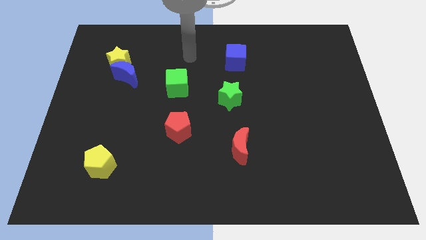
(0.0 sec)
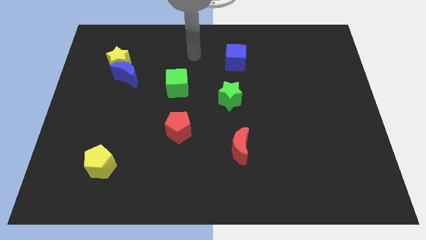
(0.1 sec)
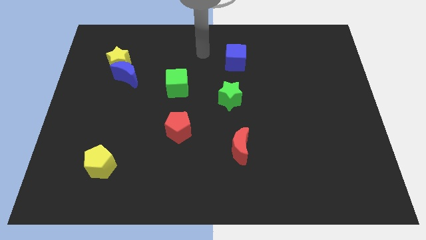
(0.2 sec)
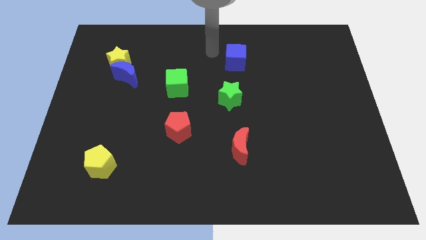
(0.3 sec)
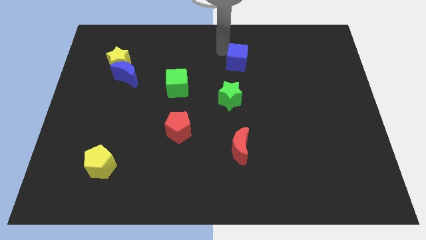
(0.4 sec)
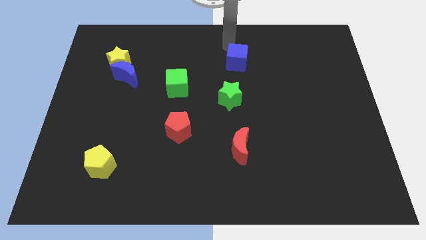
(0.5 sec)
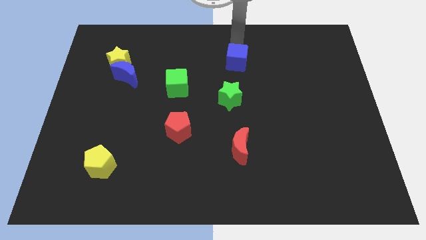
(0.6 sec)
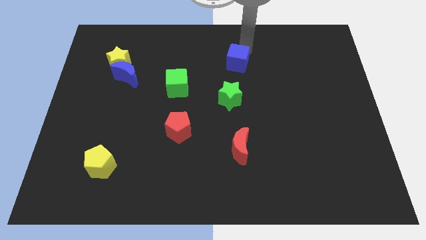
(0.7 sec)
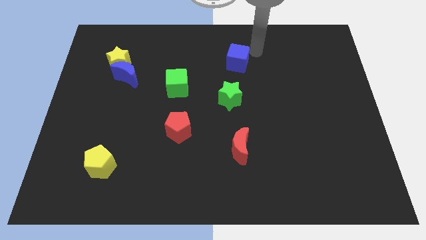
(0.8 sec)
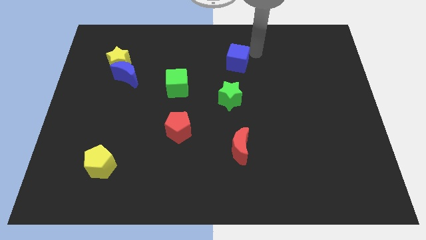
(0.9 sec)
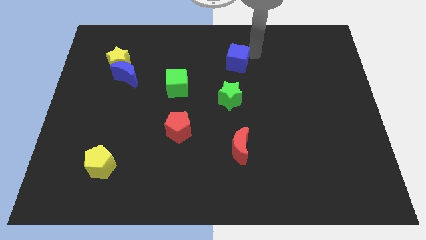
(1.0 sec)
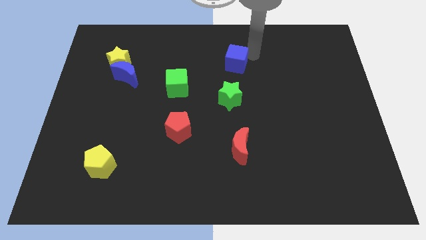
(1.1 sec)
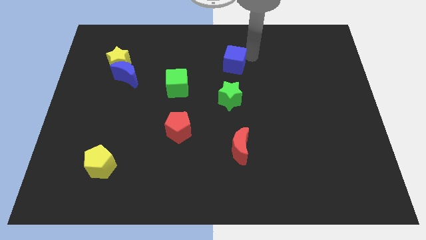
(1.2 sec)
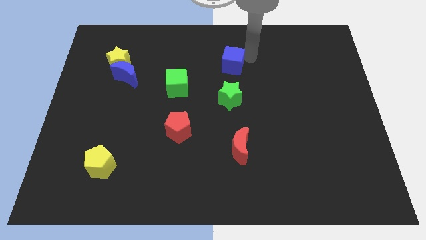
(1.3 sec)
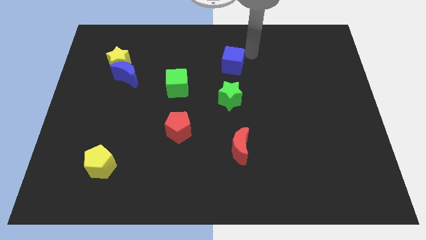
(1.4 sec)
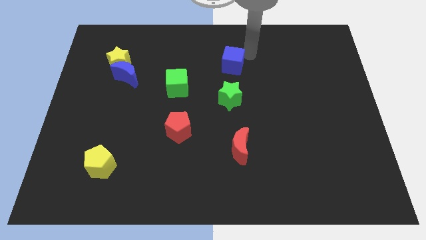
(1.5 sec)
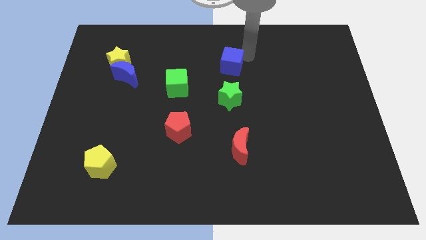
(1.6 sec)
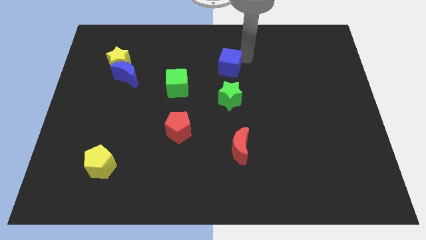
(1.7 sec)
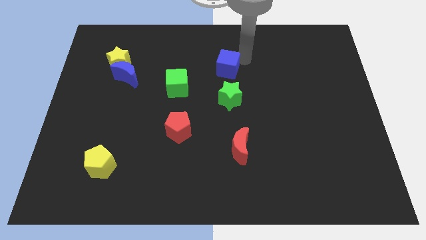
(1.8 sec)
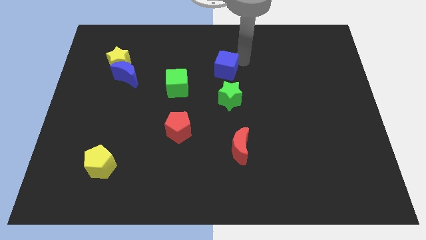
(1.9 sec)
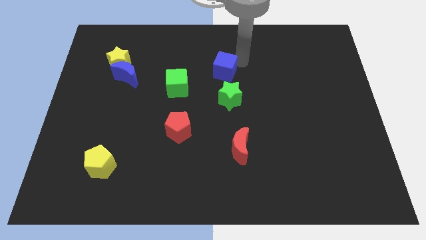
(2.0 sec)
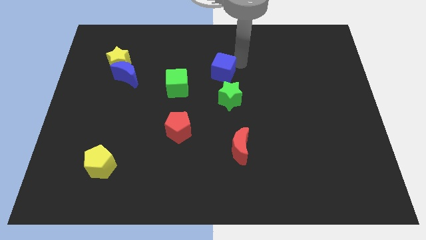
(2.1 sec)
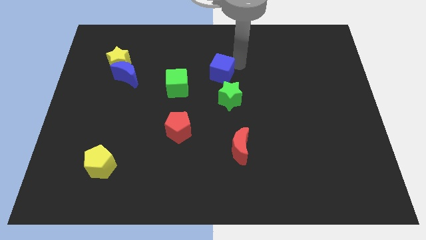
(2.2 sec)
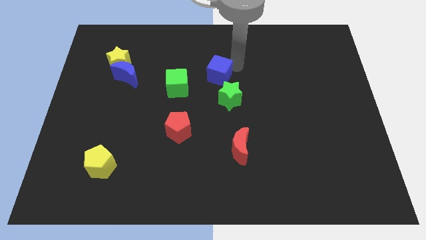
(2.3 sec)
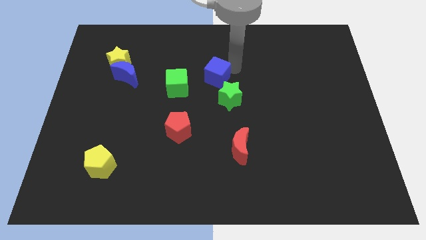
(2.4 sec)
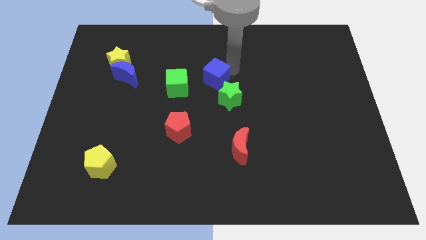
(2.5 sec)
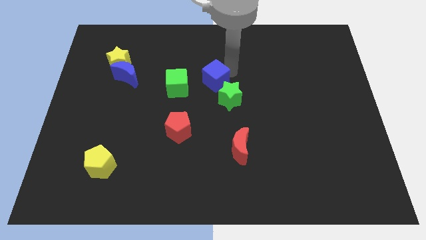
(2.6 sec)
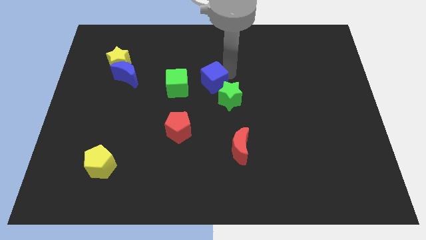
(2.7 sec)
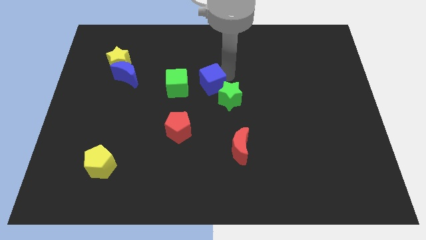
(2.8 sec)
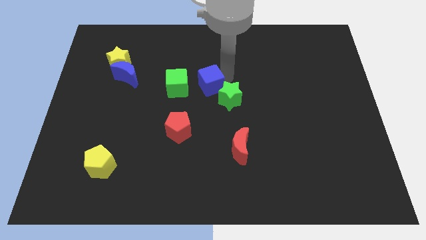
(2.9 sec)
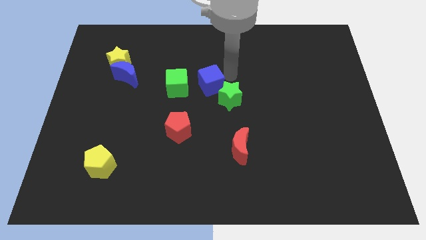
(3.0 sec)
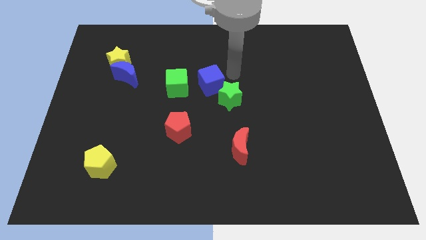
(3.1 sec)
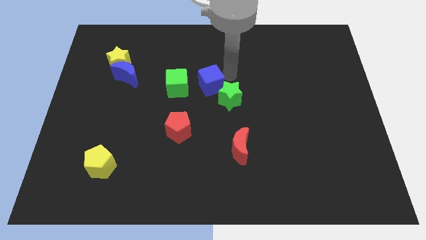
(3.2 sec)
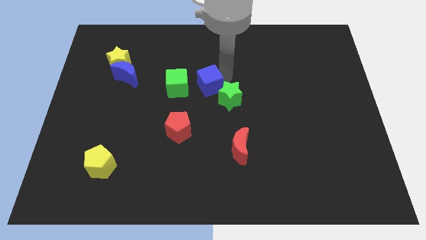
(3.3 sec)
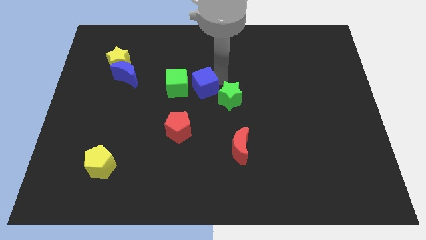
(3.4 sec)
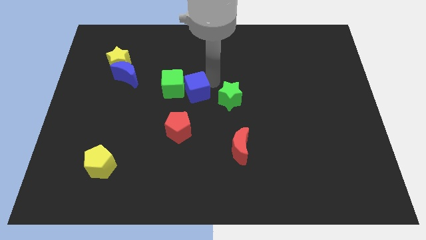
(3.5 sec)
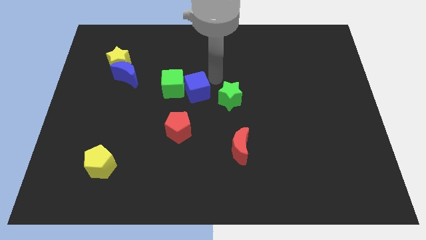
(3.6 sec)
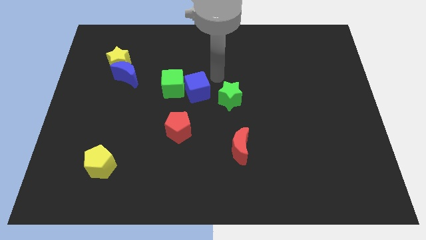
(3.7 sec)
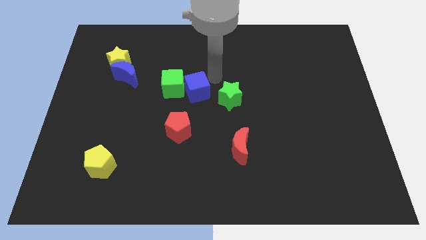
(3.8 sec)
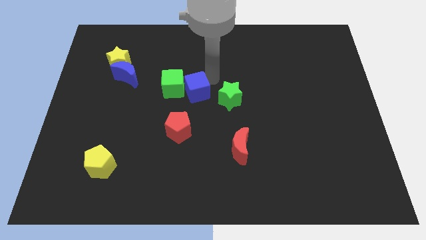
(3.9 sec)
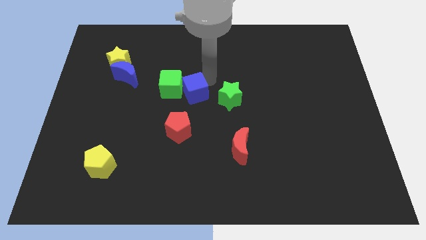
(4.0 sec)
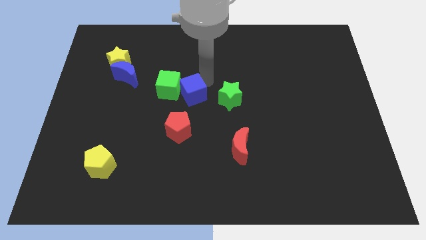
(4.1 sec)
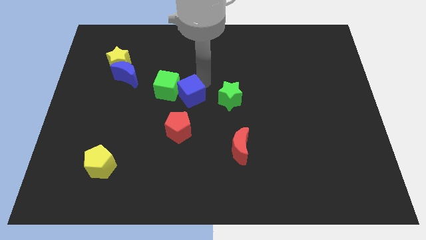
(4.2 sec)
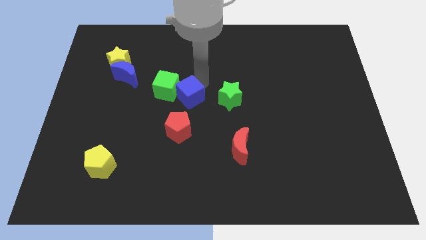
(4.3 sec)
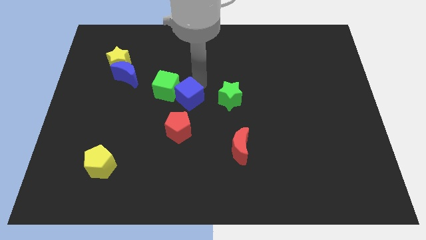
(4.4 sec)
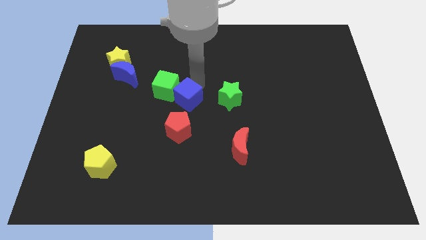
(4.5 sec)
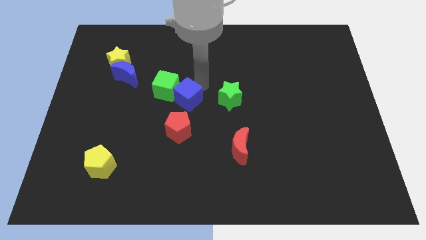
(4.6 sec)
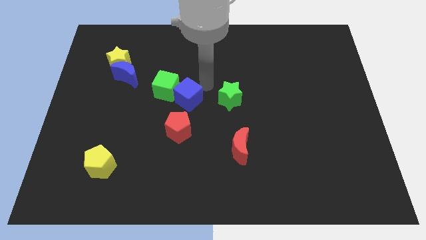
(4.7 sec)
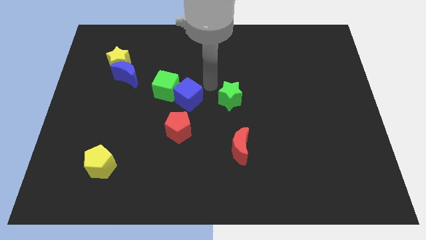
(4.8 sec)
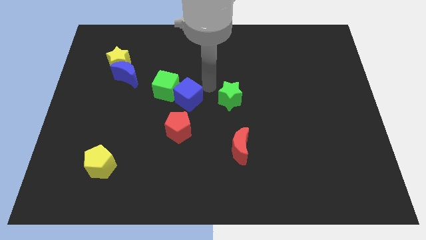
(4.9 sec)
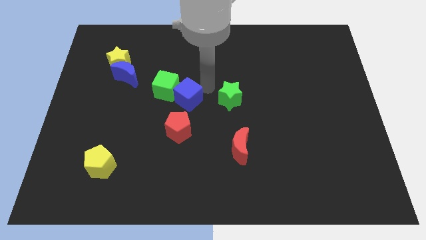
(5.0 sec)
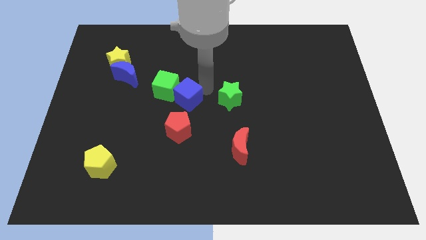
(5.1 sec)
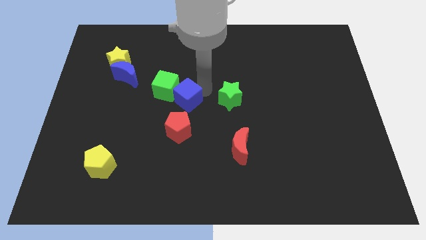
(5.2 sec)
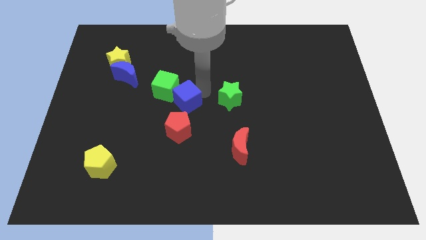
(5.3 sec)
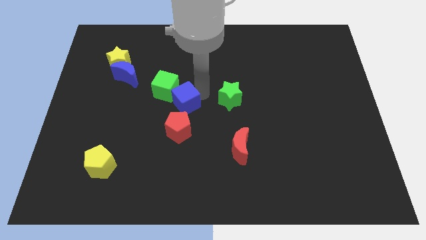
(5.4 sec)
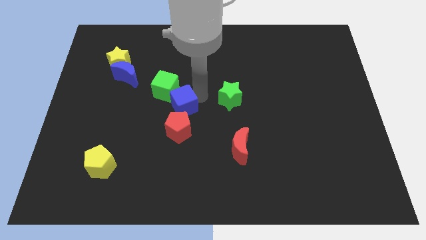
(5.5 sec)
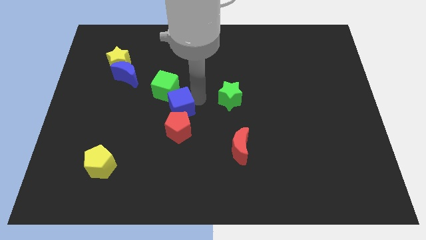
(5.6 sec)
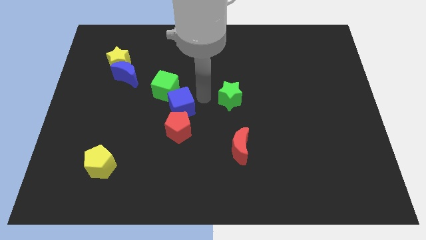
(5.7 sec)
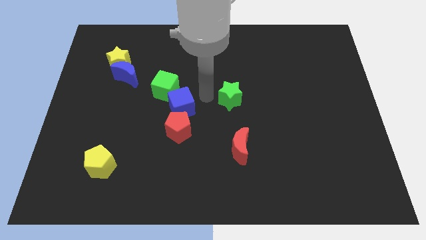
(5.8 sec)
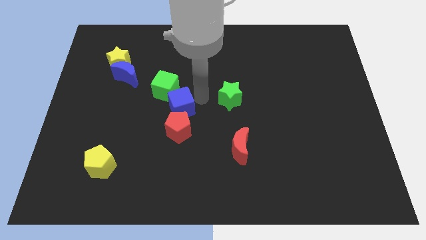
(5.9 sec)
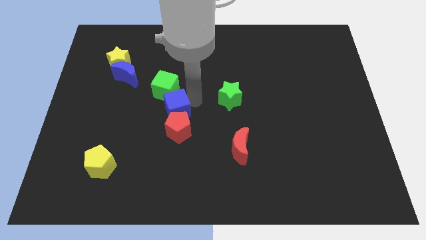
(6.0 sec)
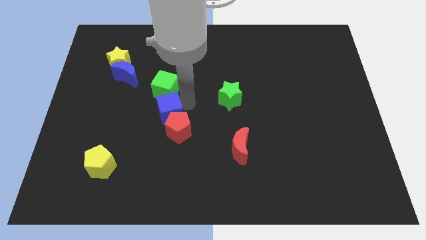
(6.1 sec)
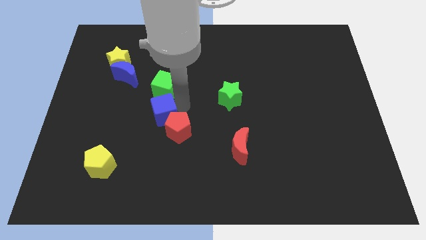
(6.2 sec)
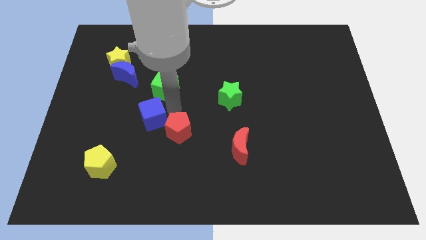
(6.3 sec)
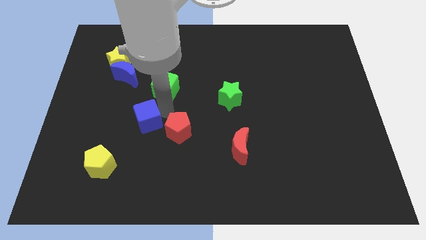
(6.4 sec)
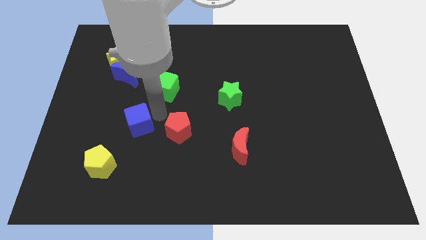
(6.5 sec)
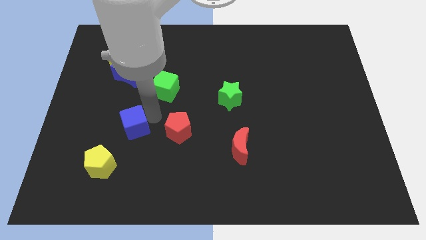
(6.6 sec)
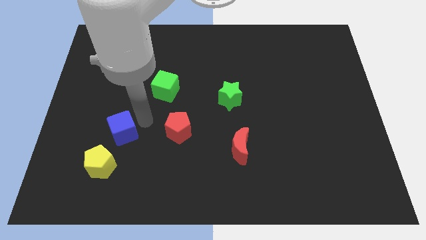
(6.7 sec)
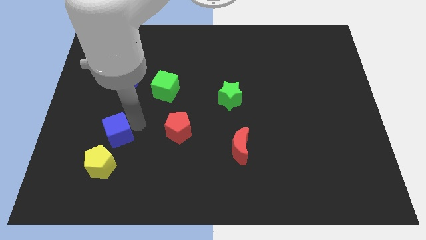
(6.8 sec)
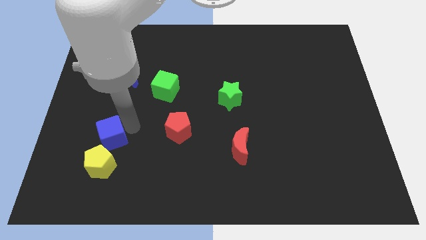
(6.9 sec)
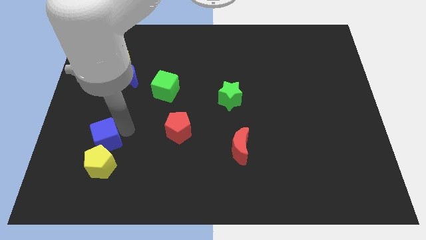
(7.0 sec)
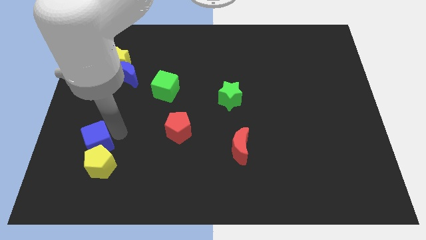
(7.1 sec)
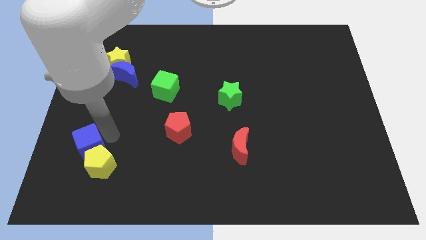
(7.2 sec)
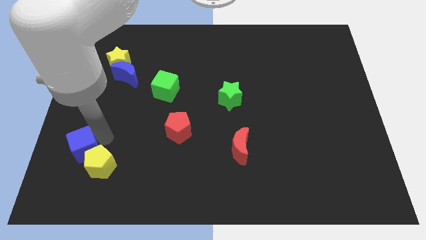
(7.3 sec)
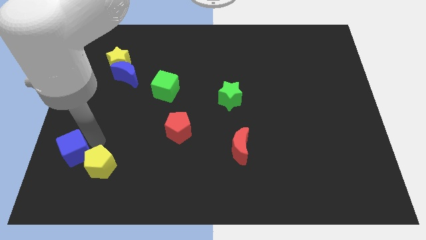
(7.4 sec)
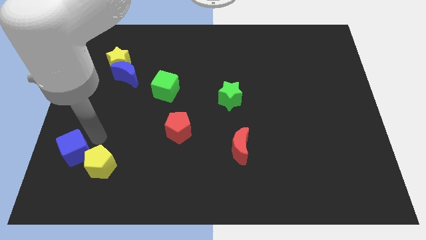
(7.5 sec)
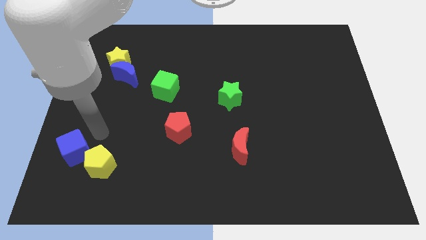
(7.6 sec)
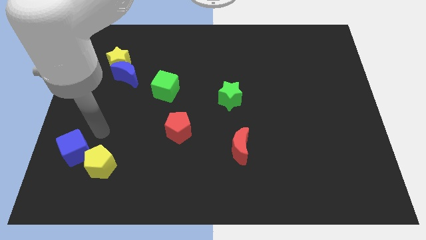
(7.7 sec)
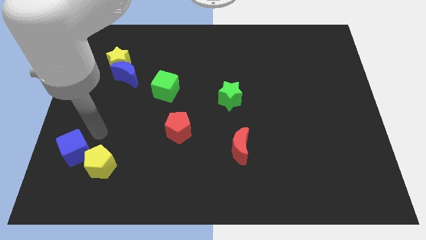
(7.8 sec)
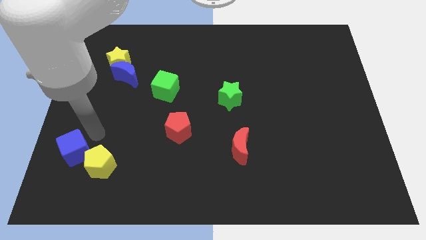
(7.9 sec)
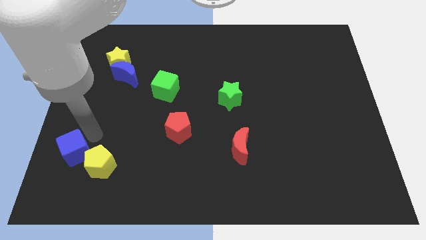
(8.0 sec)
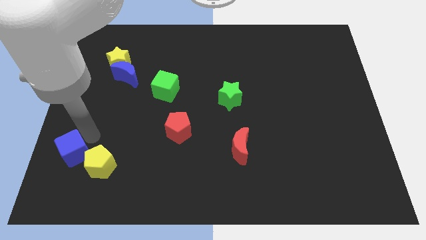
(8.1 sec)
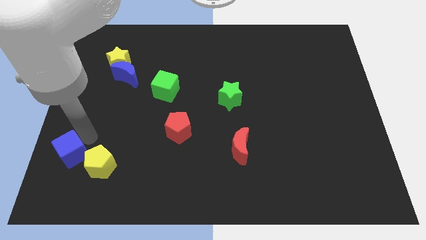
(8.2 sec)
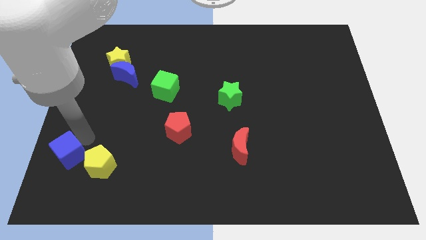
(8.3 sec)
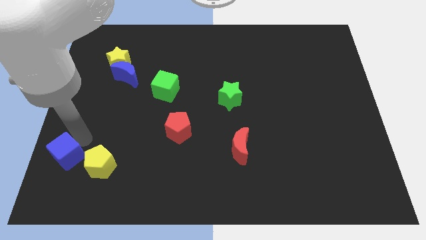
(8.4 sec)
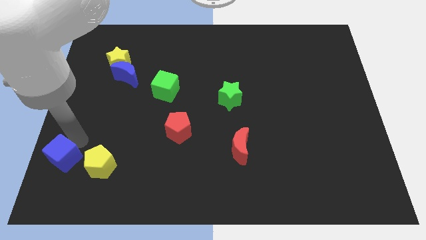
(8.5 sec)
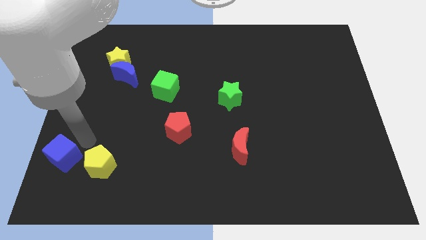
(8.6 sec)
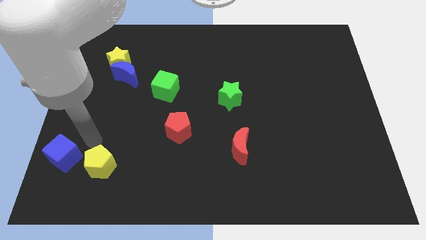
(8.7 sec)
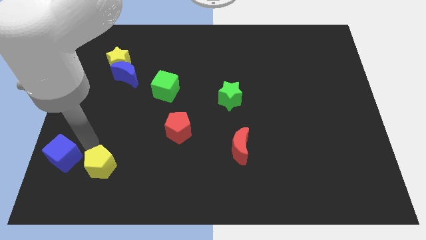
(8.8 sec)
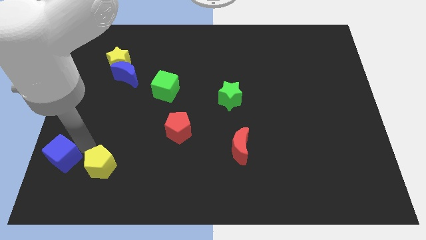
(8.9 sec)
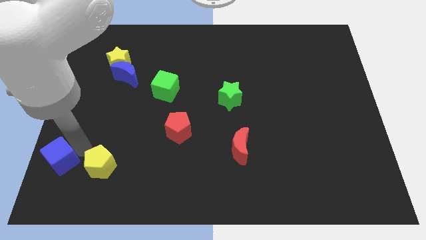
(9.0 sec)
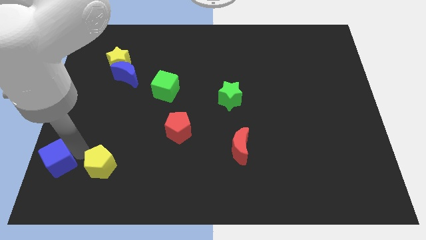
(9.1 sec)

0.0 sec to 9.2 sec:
push the blue cube to the bottom left corner
